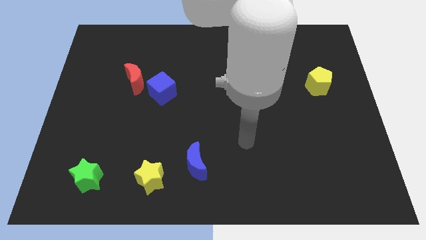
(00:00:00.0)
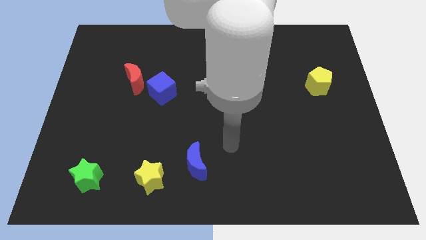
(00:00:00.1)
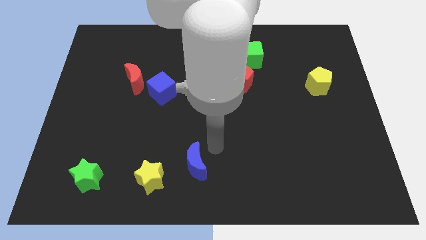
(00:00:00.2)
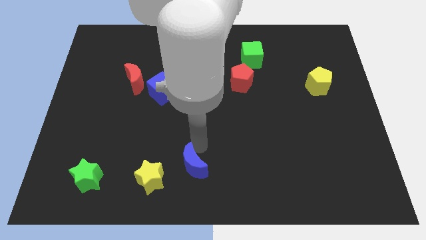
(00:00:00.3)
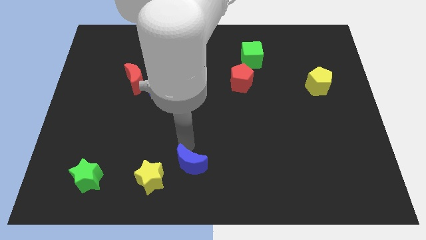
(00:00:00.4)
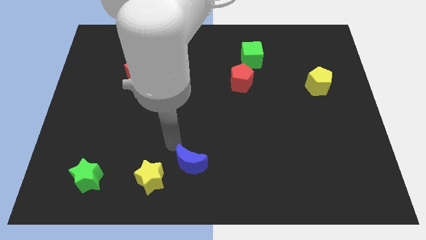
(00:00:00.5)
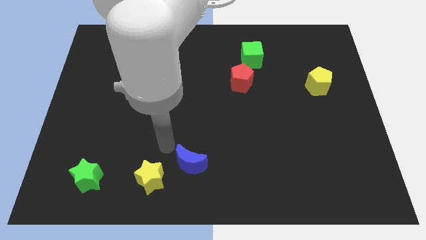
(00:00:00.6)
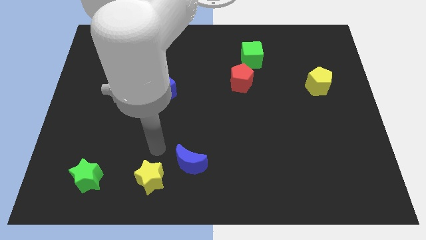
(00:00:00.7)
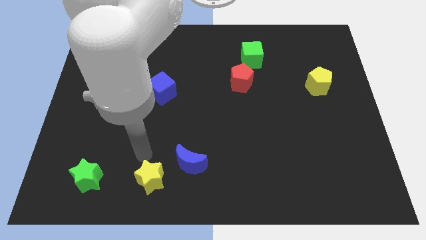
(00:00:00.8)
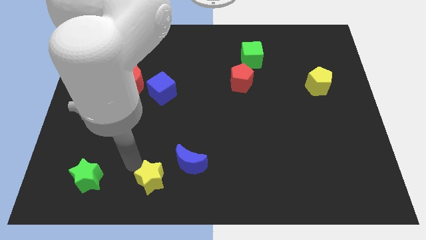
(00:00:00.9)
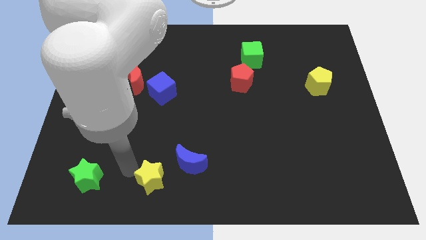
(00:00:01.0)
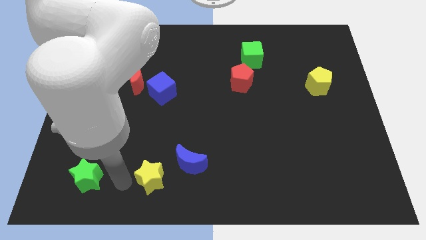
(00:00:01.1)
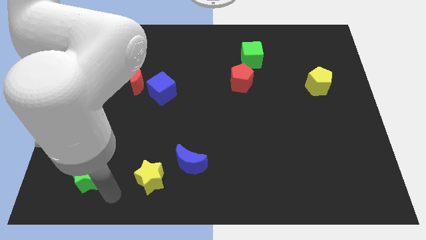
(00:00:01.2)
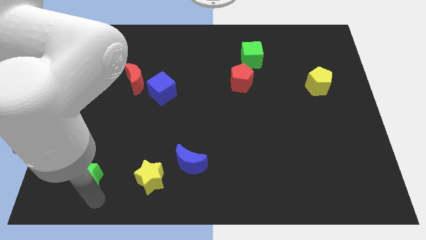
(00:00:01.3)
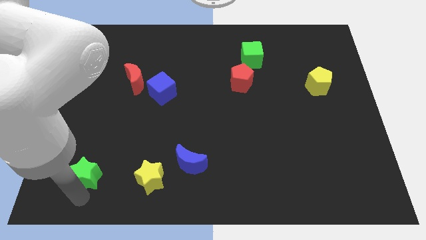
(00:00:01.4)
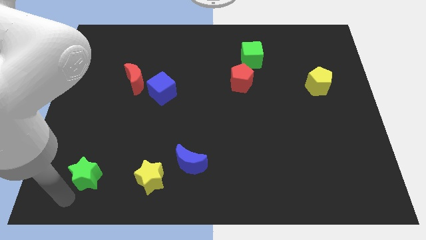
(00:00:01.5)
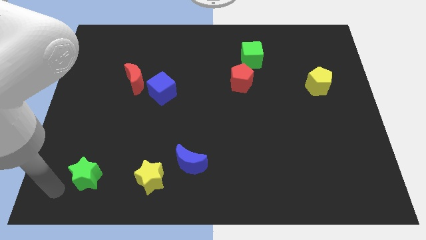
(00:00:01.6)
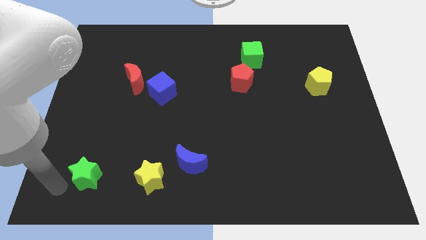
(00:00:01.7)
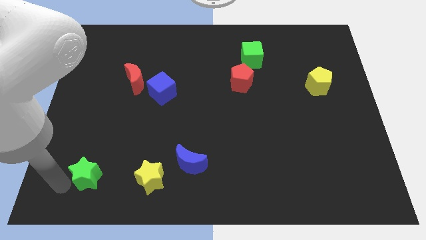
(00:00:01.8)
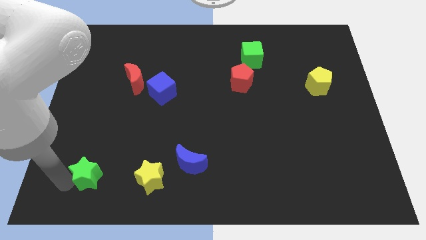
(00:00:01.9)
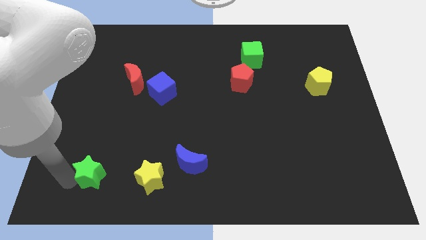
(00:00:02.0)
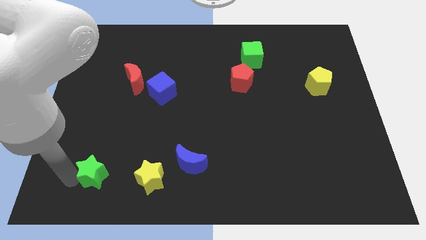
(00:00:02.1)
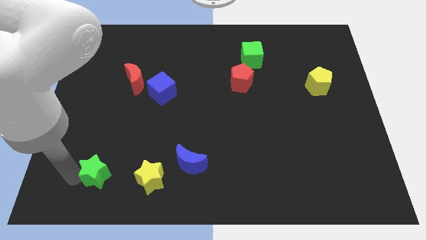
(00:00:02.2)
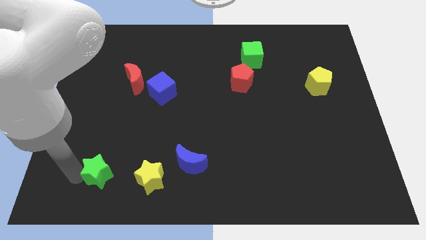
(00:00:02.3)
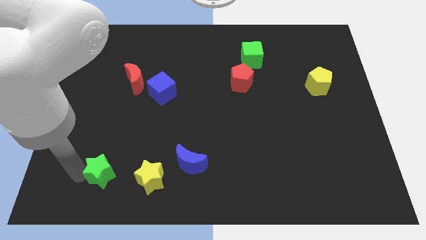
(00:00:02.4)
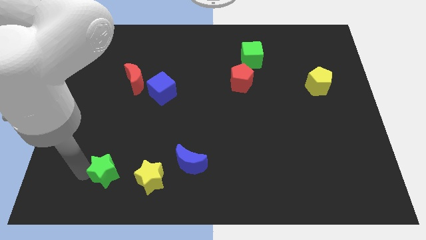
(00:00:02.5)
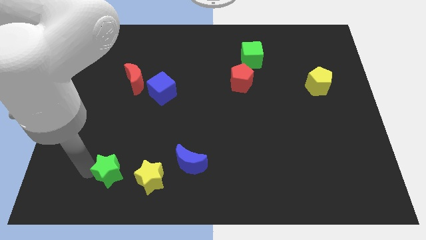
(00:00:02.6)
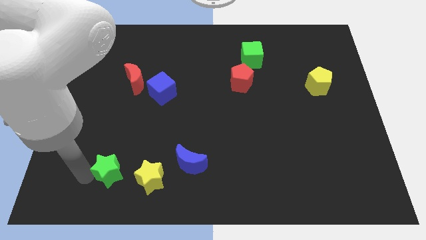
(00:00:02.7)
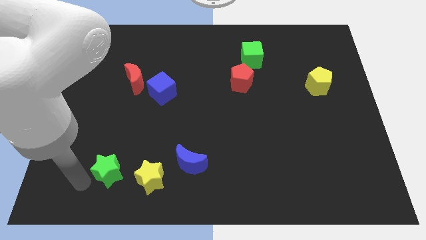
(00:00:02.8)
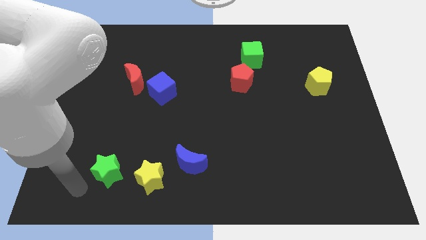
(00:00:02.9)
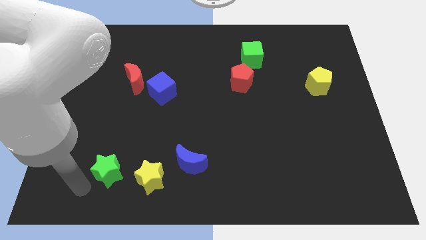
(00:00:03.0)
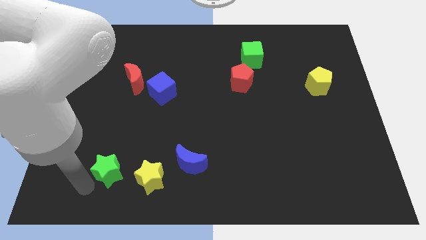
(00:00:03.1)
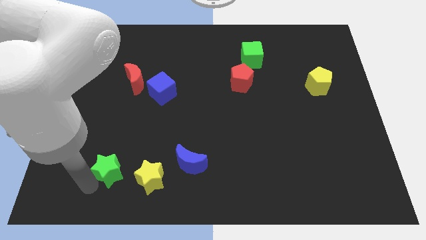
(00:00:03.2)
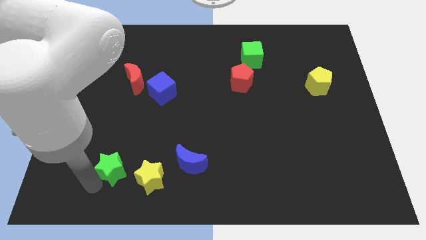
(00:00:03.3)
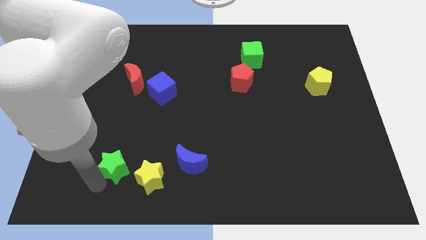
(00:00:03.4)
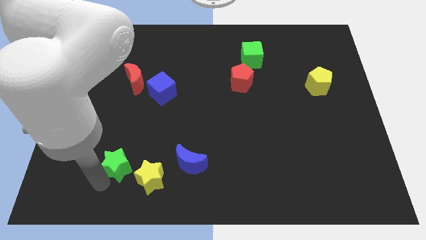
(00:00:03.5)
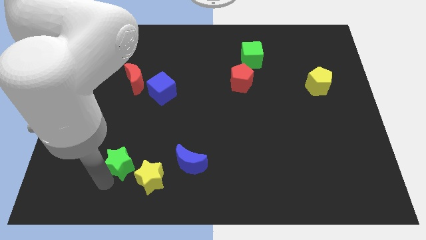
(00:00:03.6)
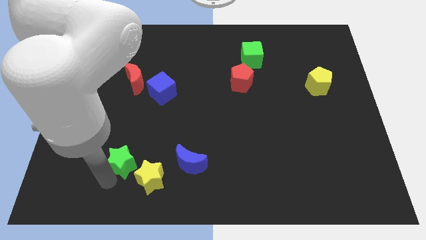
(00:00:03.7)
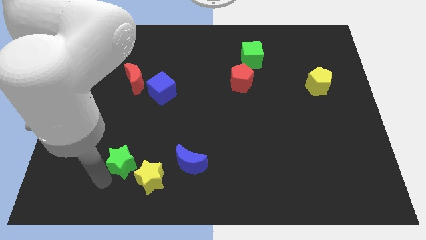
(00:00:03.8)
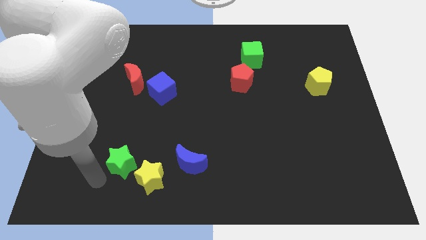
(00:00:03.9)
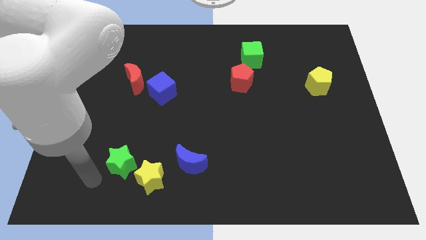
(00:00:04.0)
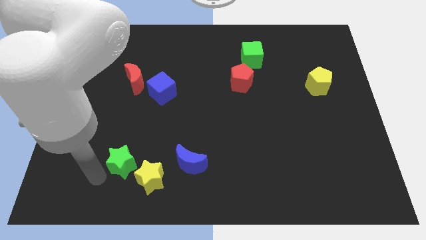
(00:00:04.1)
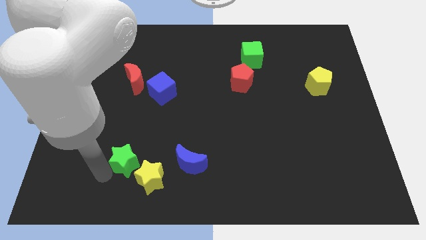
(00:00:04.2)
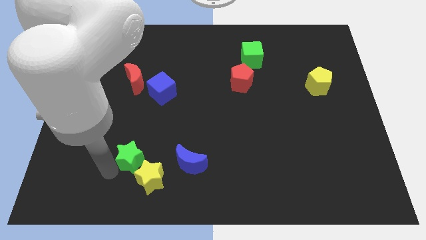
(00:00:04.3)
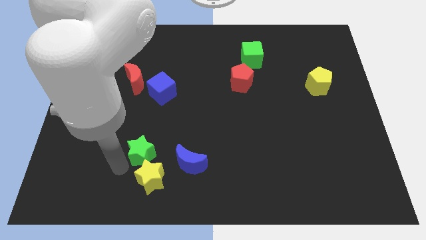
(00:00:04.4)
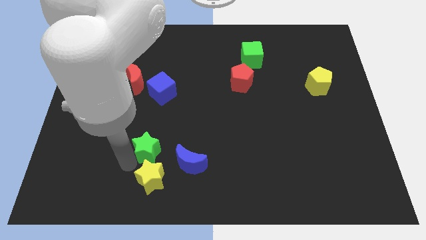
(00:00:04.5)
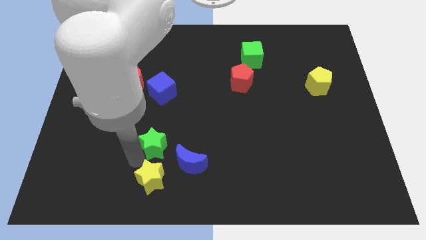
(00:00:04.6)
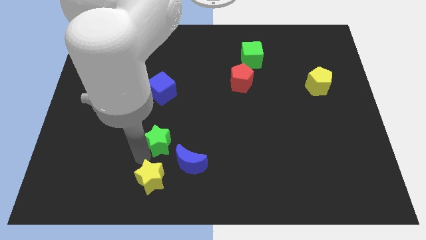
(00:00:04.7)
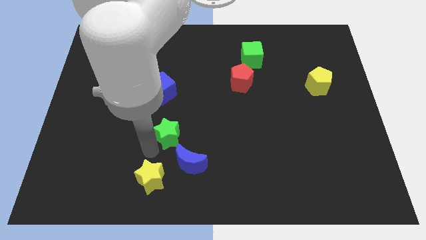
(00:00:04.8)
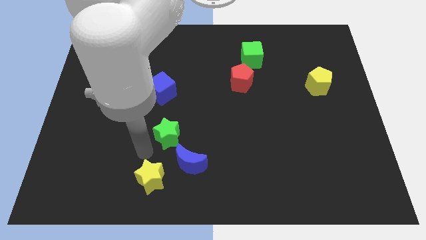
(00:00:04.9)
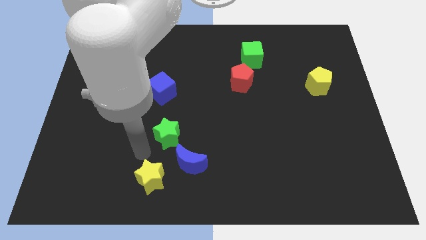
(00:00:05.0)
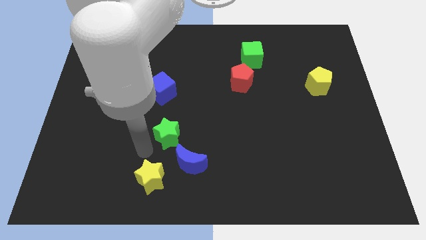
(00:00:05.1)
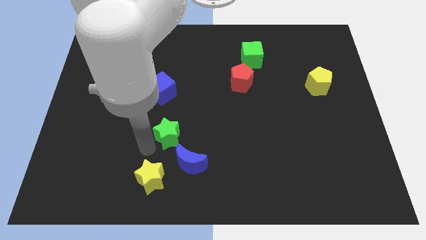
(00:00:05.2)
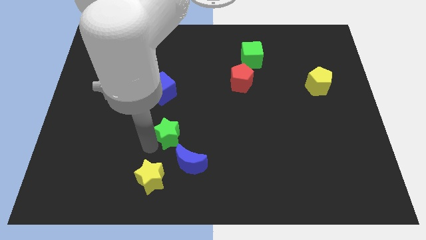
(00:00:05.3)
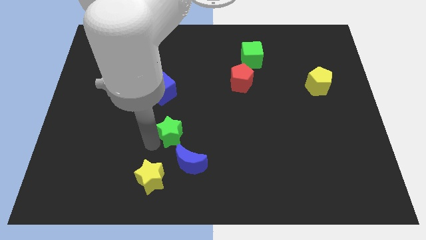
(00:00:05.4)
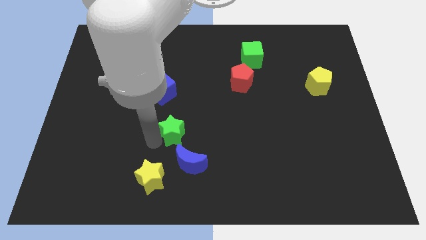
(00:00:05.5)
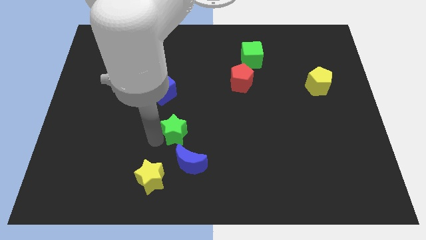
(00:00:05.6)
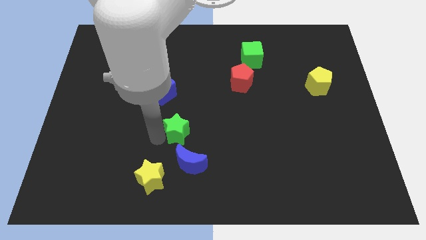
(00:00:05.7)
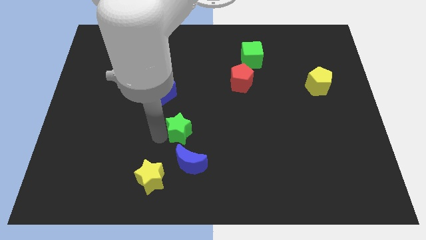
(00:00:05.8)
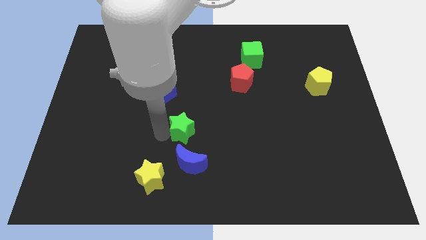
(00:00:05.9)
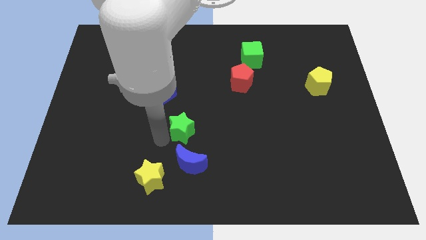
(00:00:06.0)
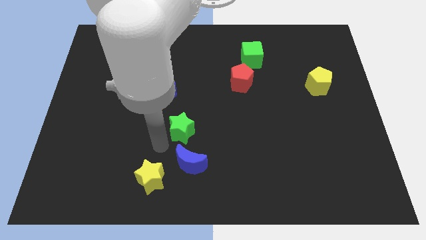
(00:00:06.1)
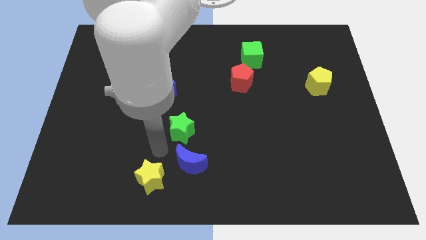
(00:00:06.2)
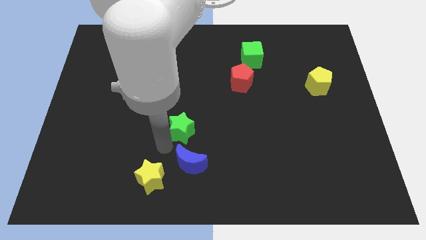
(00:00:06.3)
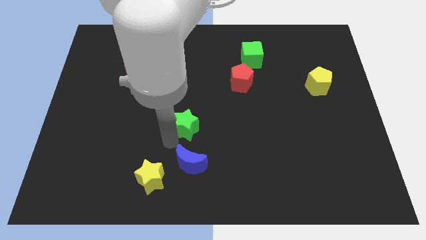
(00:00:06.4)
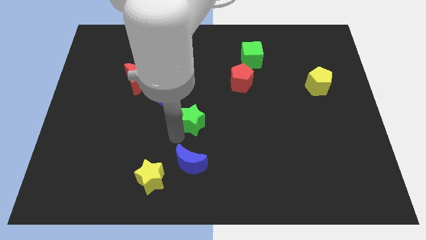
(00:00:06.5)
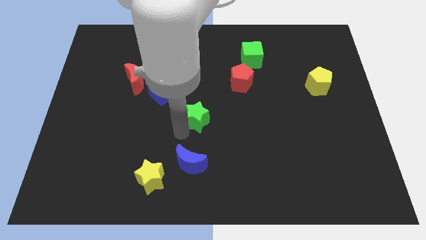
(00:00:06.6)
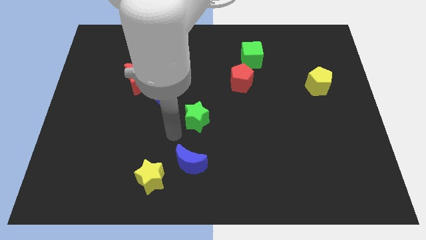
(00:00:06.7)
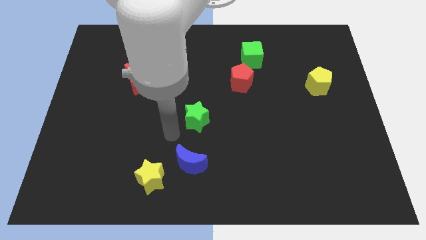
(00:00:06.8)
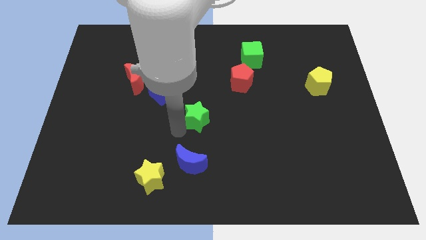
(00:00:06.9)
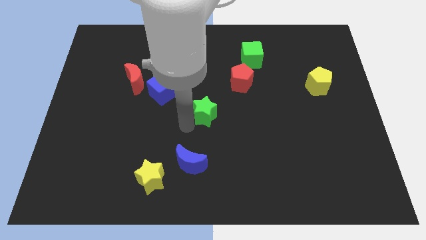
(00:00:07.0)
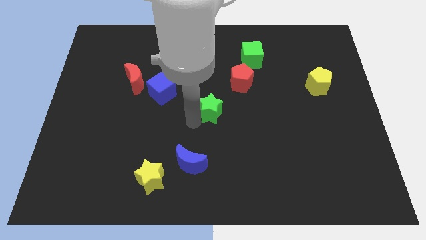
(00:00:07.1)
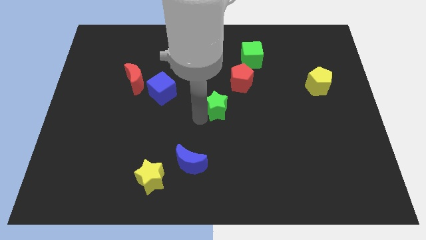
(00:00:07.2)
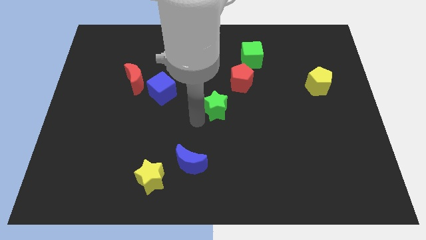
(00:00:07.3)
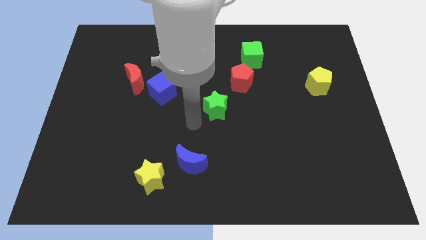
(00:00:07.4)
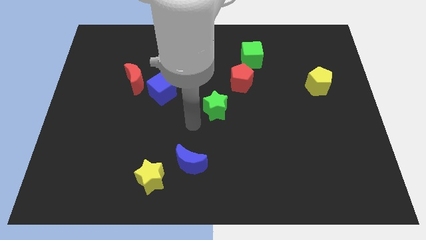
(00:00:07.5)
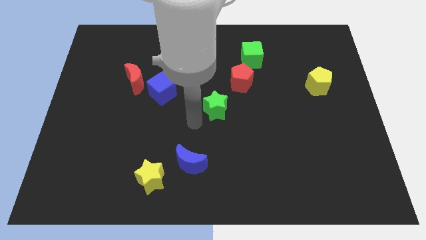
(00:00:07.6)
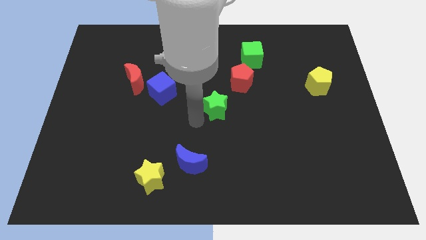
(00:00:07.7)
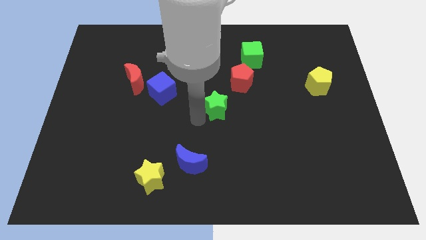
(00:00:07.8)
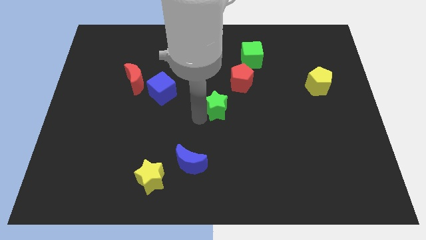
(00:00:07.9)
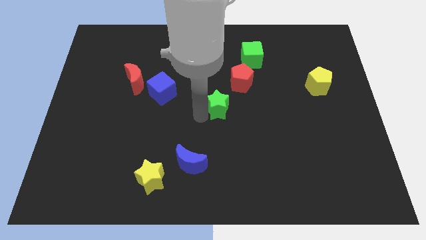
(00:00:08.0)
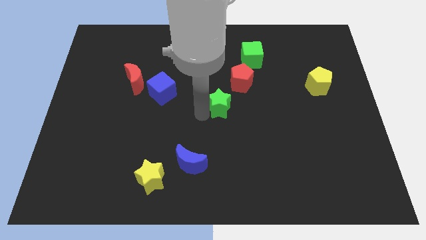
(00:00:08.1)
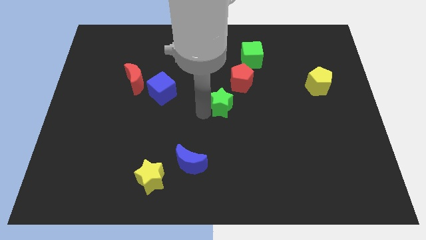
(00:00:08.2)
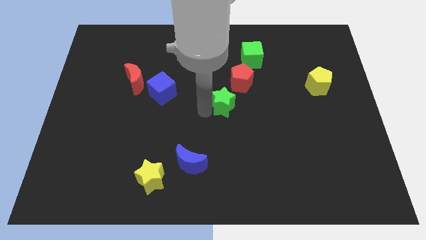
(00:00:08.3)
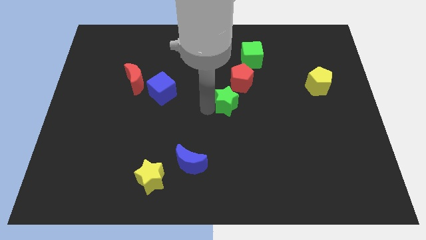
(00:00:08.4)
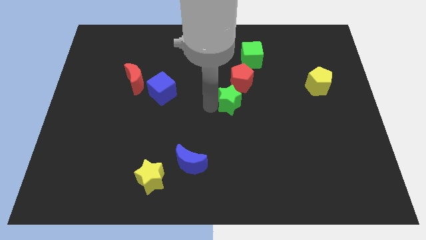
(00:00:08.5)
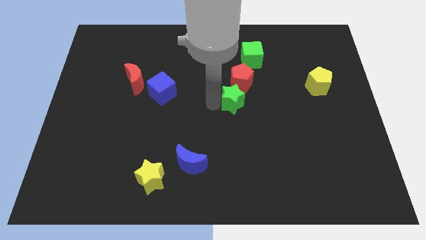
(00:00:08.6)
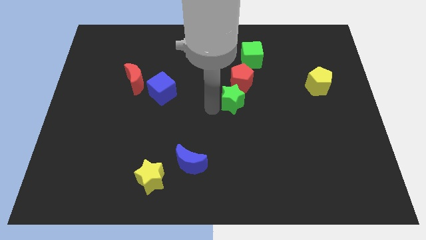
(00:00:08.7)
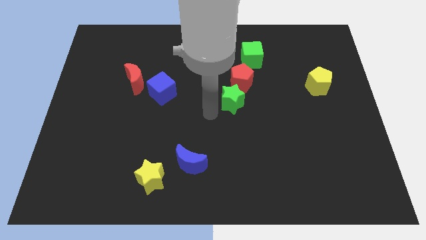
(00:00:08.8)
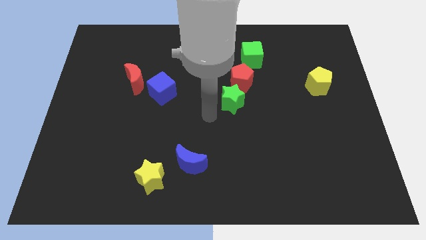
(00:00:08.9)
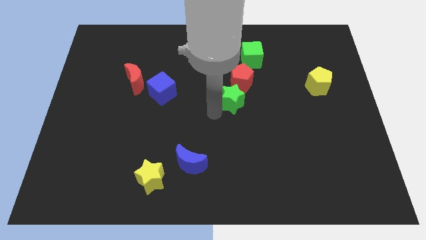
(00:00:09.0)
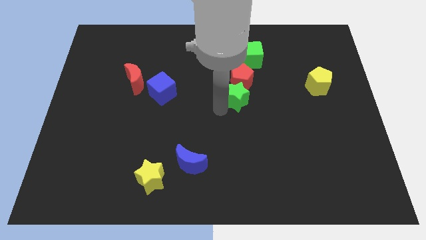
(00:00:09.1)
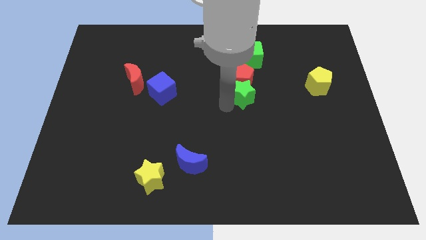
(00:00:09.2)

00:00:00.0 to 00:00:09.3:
push the green star below the green cube
